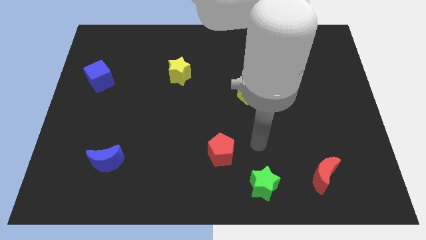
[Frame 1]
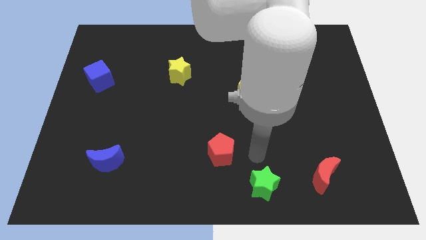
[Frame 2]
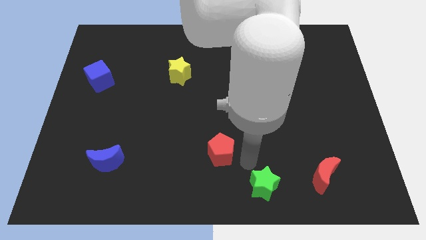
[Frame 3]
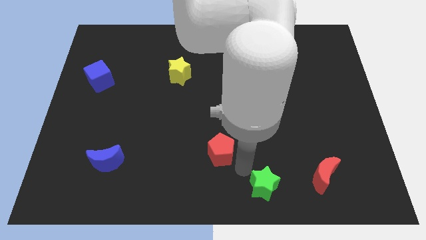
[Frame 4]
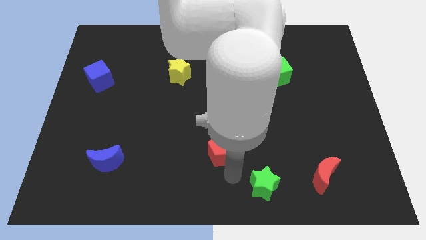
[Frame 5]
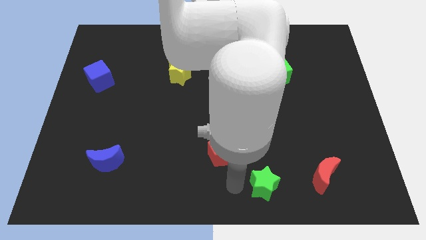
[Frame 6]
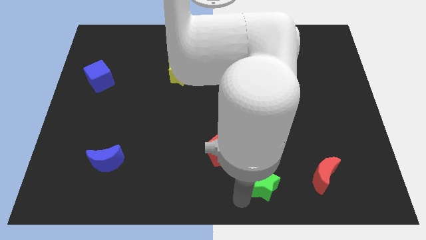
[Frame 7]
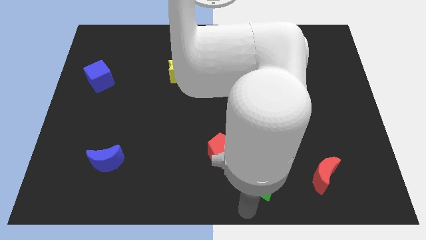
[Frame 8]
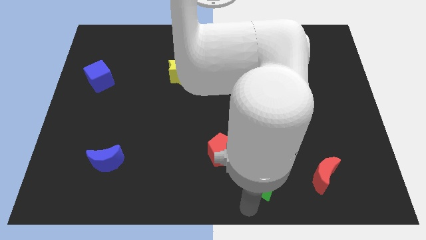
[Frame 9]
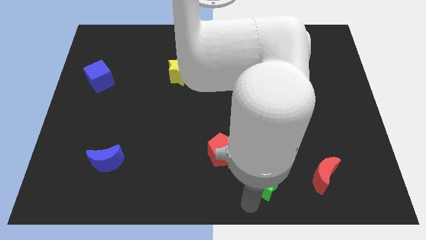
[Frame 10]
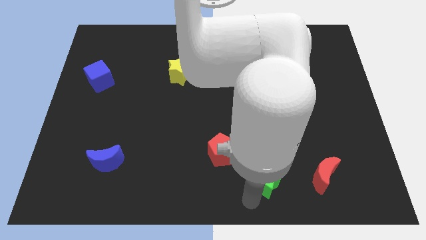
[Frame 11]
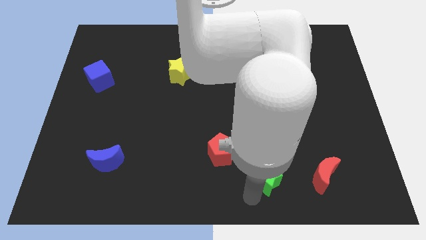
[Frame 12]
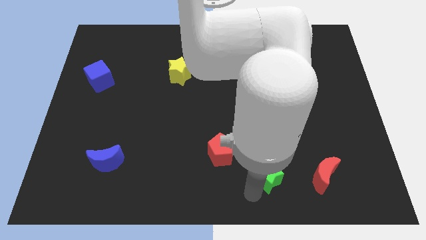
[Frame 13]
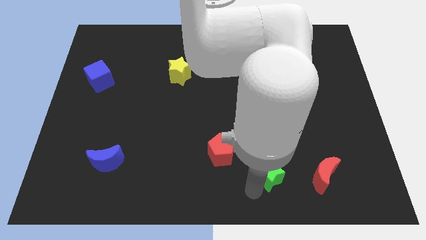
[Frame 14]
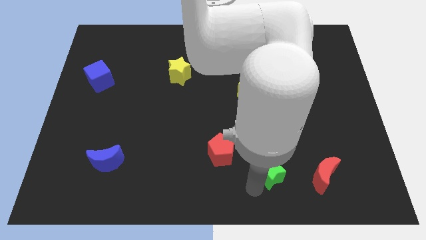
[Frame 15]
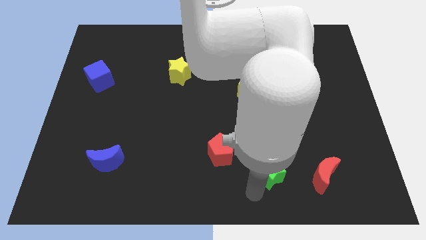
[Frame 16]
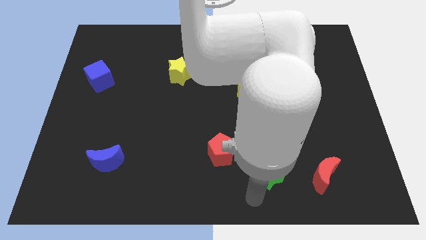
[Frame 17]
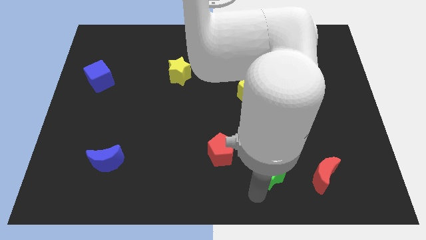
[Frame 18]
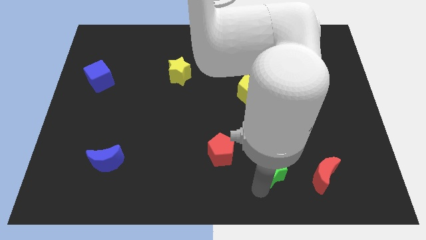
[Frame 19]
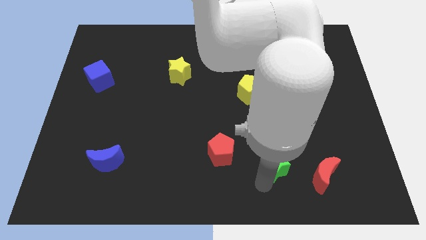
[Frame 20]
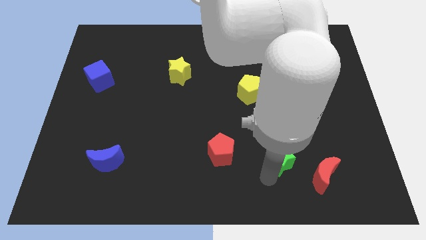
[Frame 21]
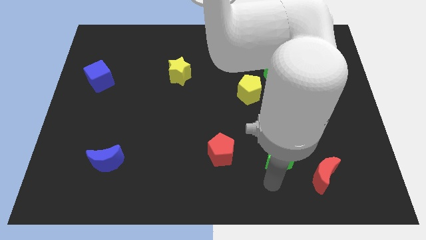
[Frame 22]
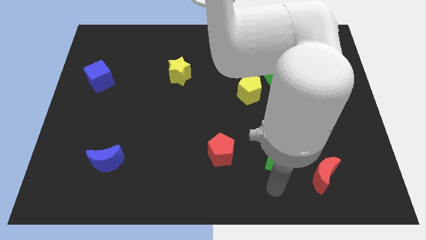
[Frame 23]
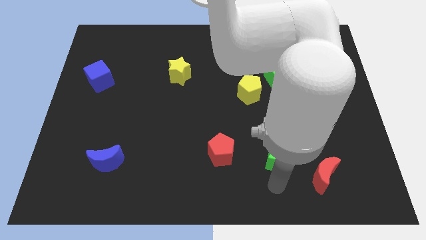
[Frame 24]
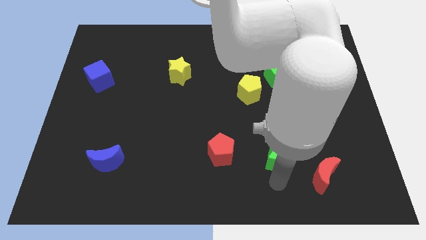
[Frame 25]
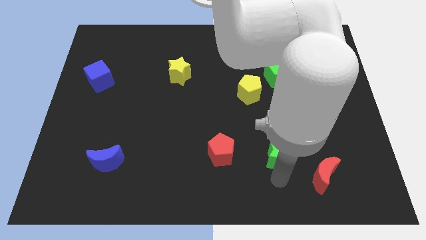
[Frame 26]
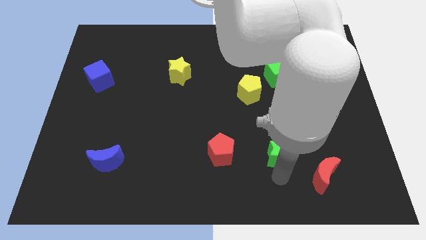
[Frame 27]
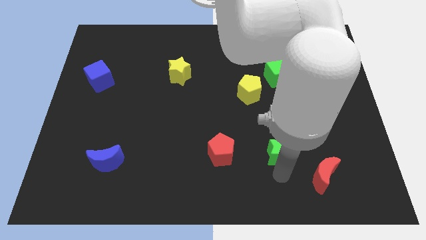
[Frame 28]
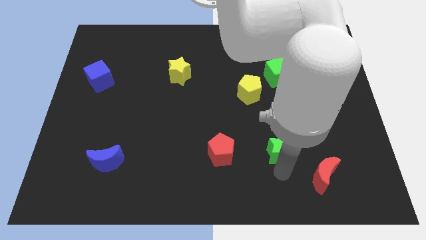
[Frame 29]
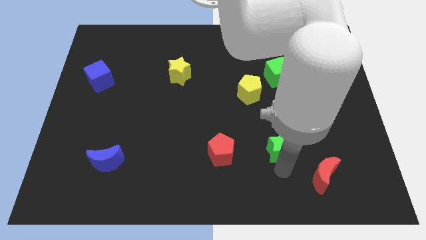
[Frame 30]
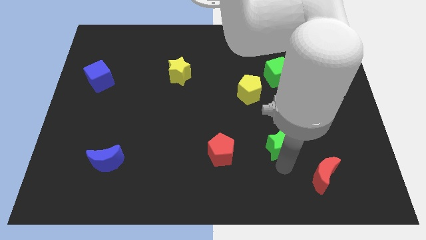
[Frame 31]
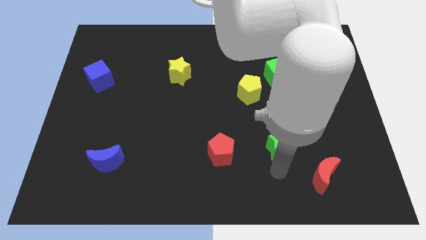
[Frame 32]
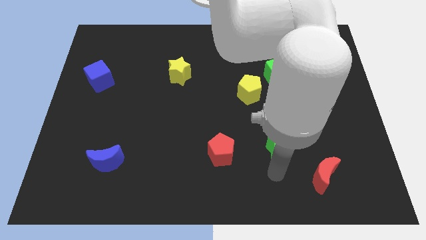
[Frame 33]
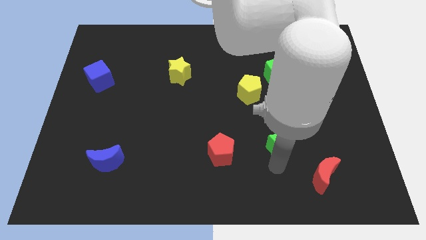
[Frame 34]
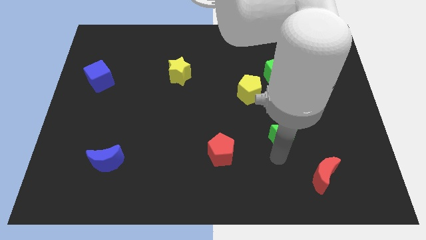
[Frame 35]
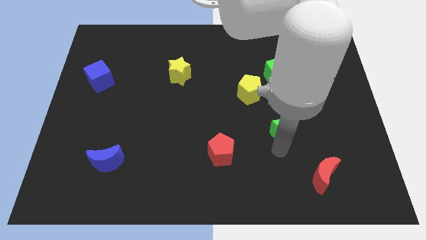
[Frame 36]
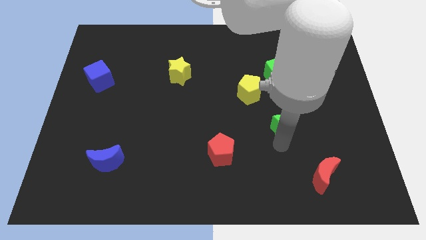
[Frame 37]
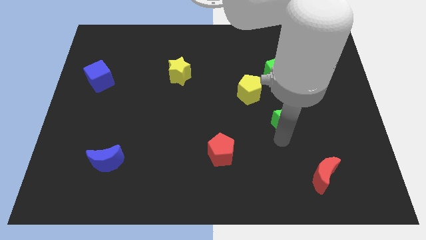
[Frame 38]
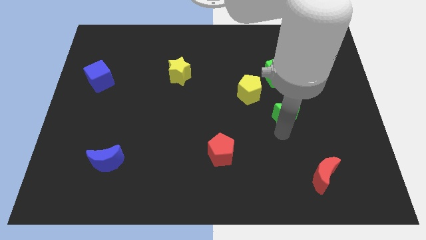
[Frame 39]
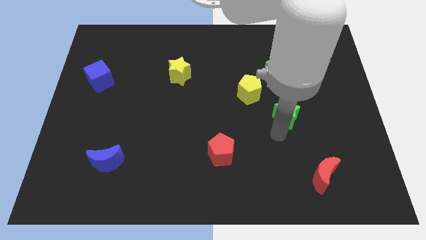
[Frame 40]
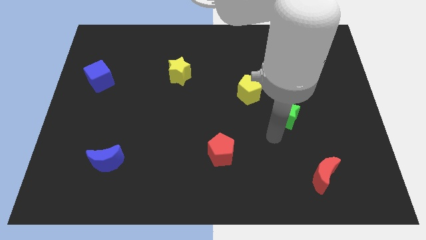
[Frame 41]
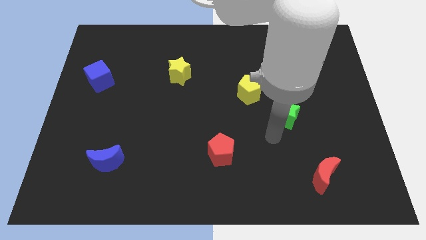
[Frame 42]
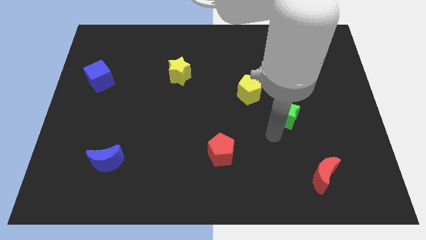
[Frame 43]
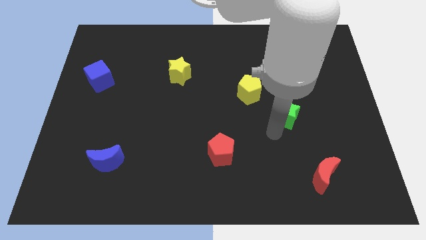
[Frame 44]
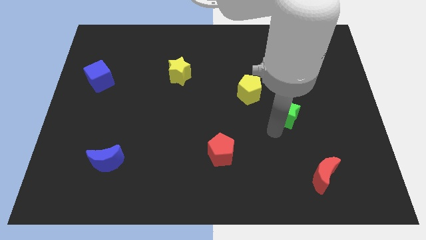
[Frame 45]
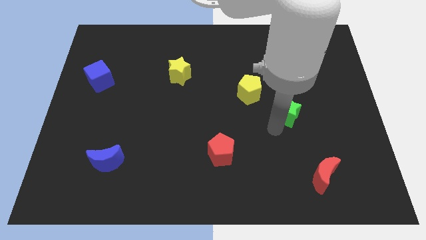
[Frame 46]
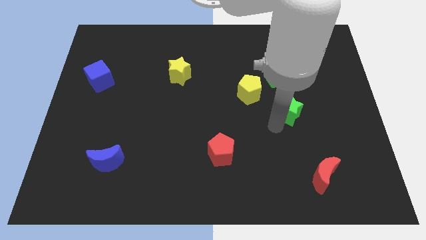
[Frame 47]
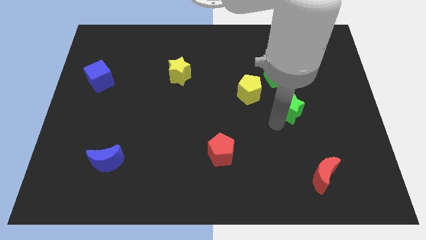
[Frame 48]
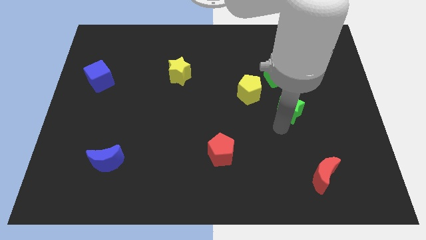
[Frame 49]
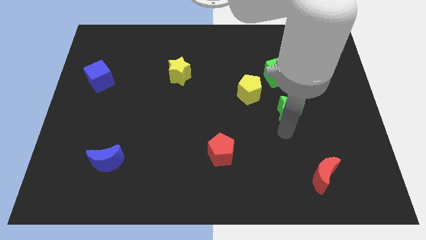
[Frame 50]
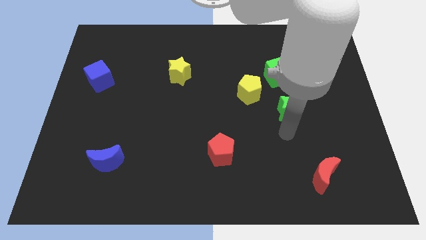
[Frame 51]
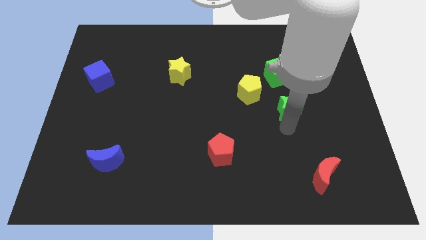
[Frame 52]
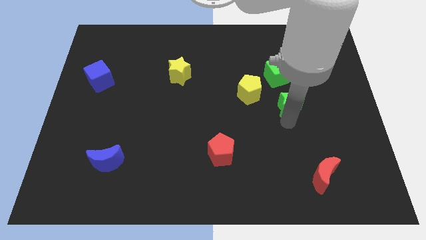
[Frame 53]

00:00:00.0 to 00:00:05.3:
slide the green star to the right side of the yellow pentagon

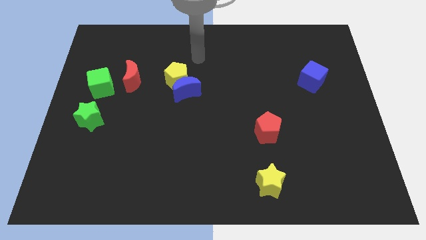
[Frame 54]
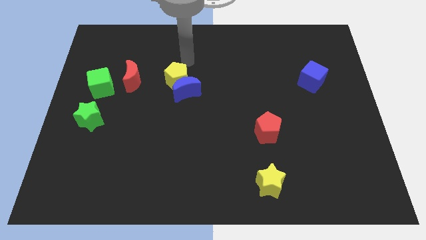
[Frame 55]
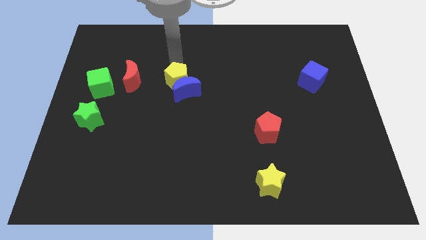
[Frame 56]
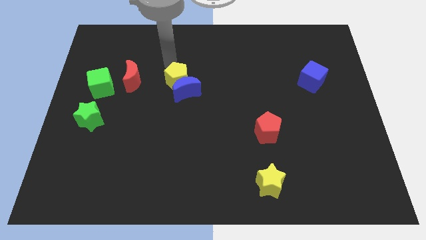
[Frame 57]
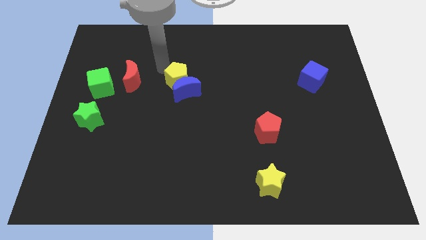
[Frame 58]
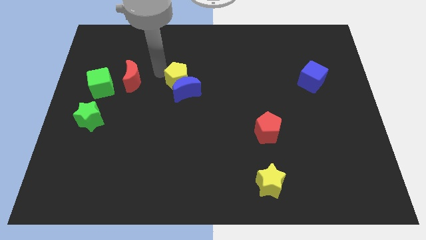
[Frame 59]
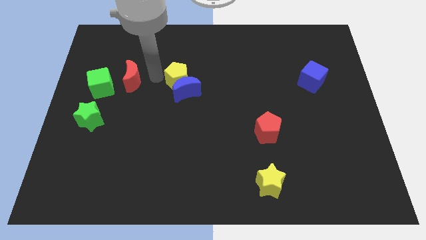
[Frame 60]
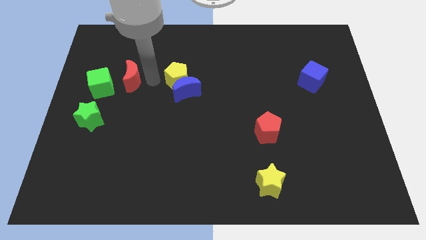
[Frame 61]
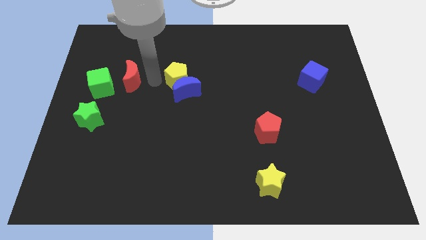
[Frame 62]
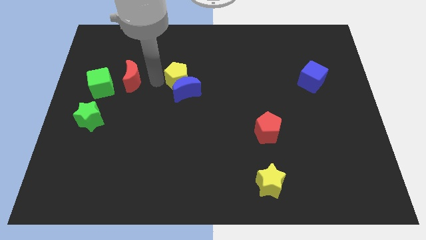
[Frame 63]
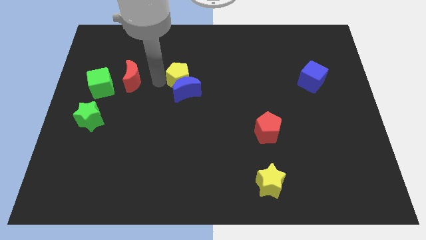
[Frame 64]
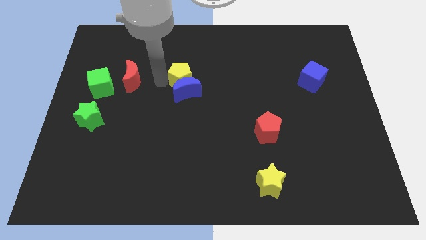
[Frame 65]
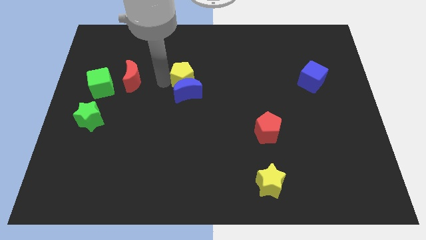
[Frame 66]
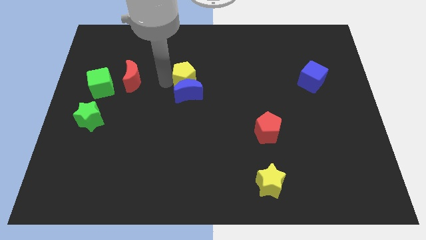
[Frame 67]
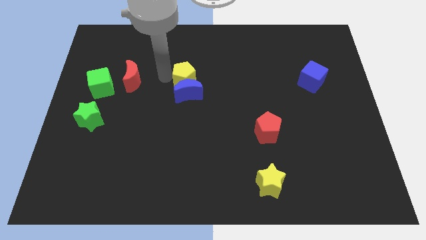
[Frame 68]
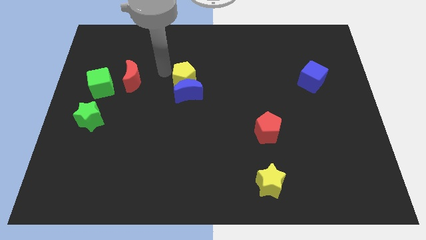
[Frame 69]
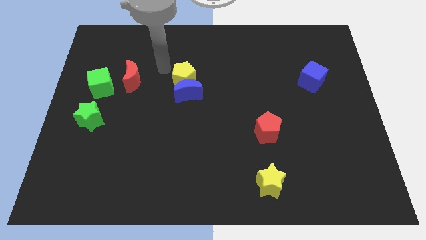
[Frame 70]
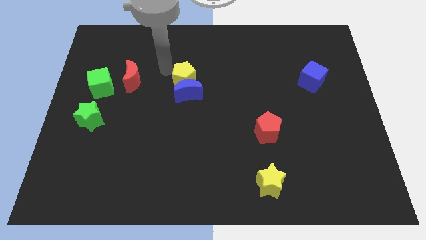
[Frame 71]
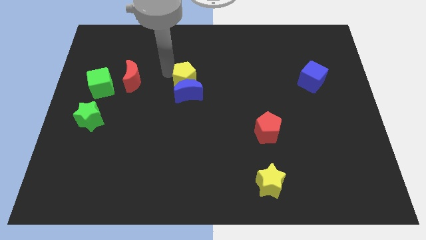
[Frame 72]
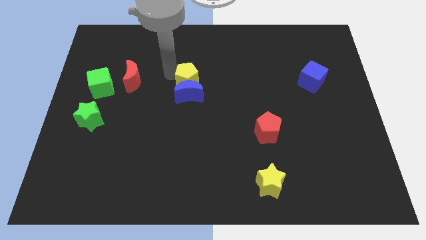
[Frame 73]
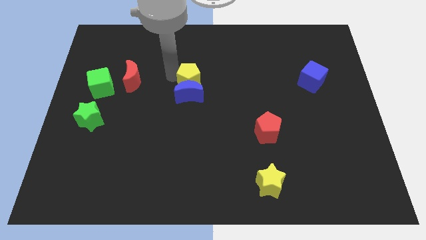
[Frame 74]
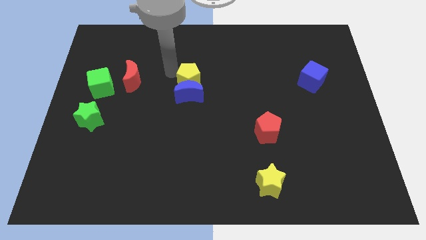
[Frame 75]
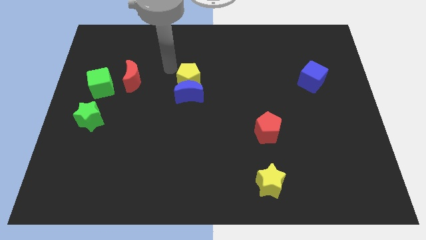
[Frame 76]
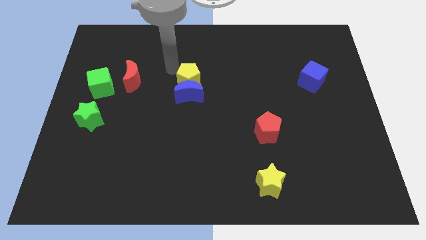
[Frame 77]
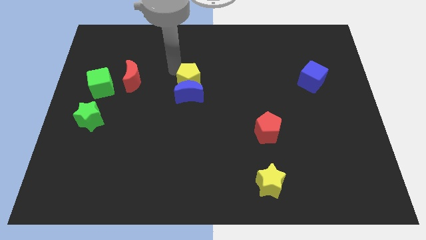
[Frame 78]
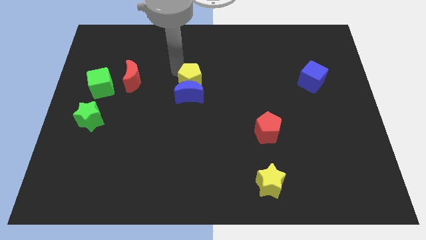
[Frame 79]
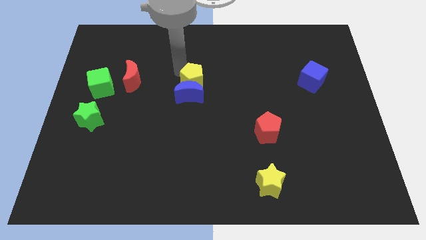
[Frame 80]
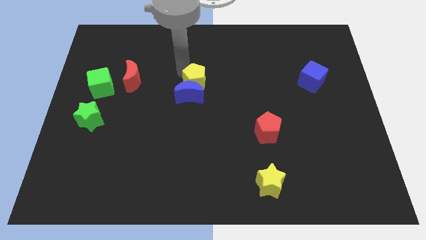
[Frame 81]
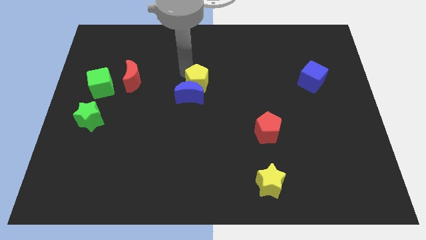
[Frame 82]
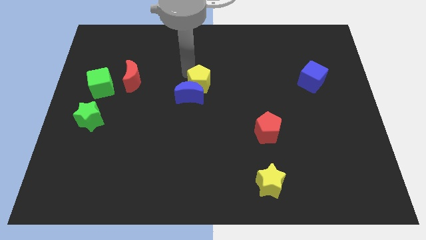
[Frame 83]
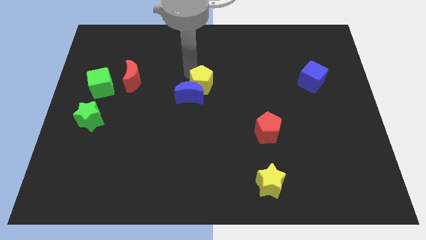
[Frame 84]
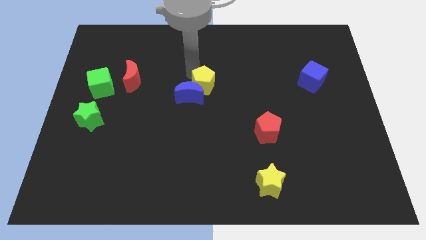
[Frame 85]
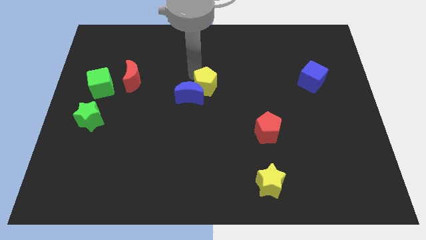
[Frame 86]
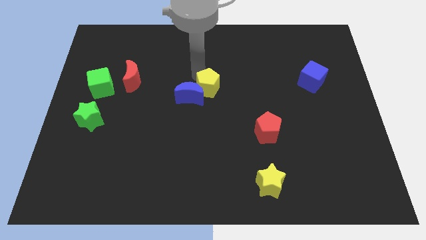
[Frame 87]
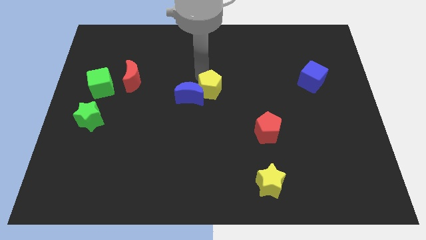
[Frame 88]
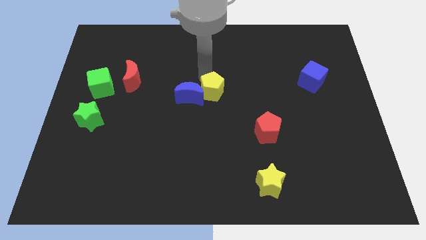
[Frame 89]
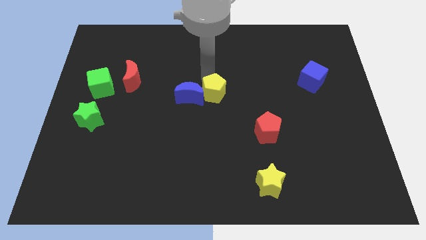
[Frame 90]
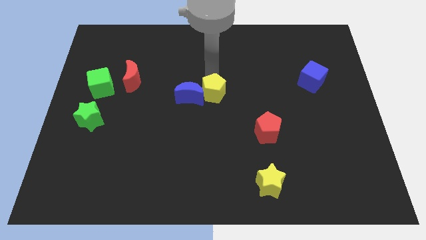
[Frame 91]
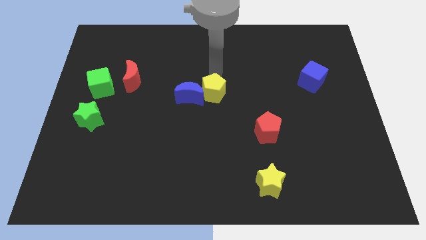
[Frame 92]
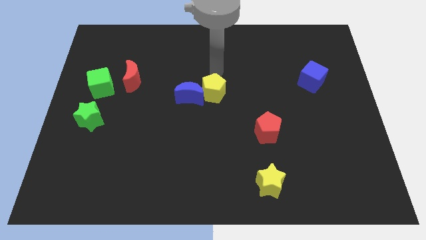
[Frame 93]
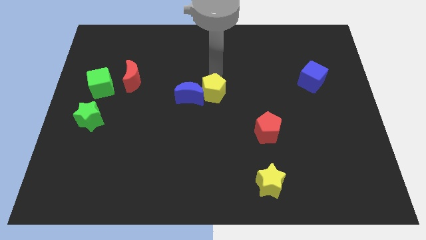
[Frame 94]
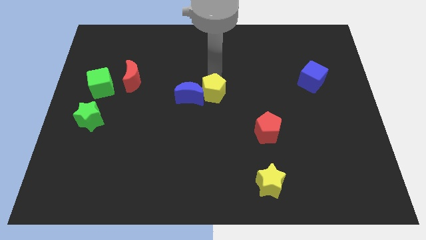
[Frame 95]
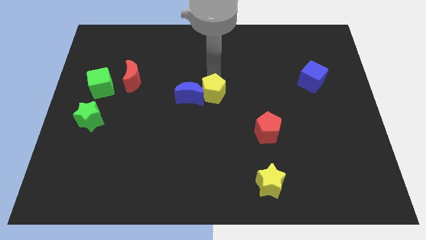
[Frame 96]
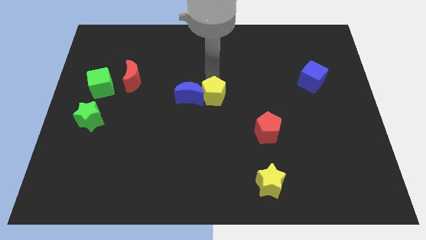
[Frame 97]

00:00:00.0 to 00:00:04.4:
move the yellow pentagon diagonally down and to the right of the blue moon
